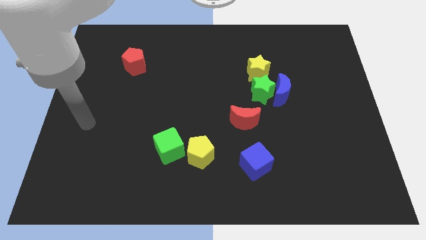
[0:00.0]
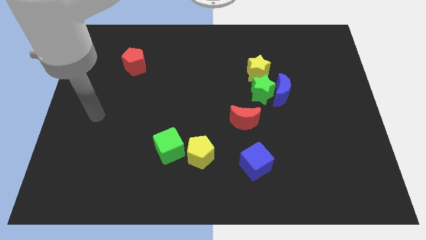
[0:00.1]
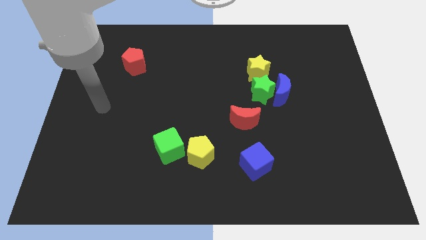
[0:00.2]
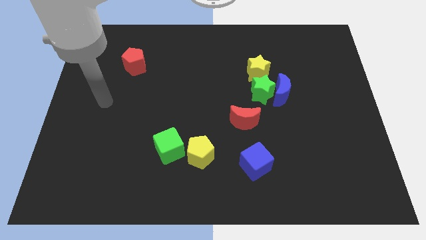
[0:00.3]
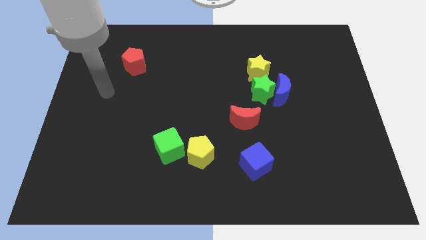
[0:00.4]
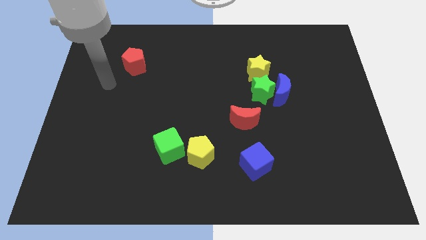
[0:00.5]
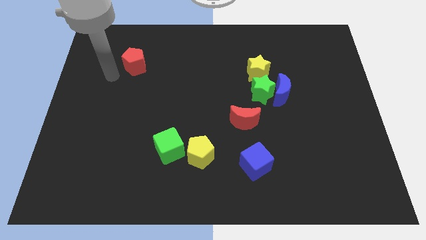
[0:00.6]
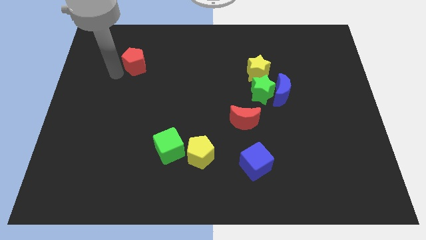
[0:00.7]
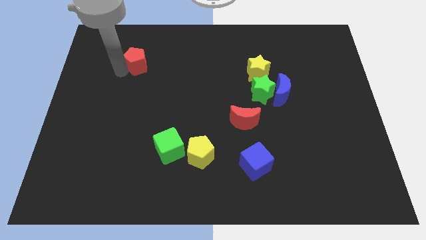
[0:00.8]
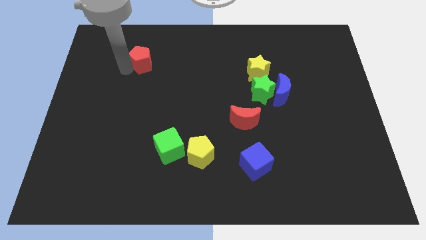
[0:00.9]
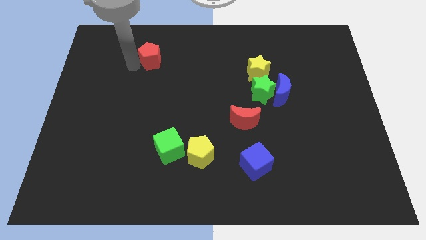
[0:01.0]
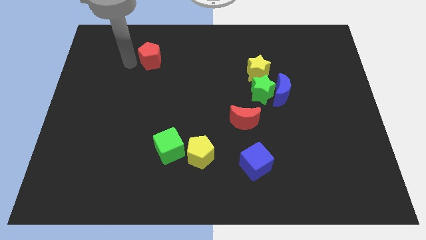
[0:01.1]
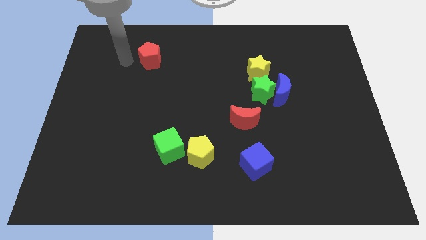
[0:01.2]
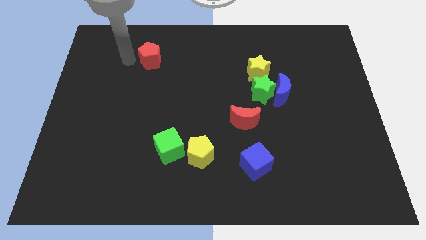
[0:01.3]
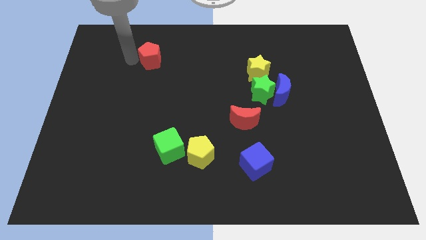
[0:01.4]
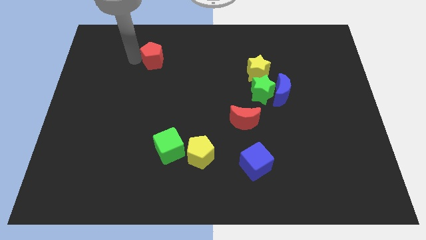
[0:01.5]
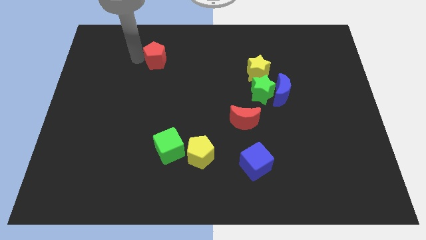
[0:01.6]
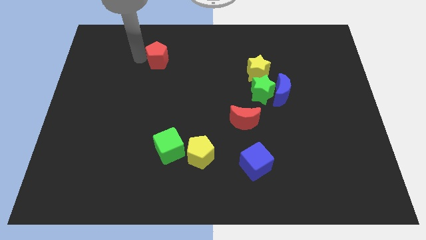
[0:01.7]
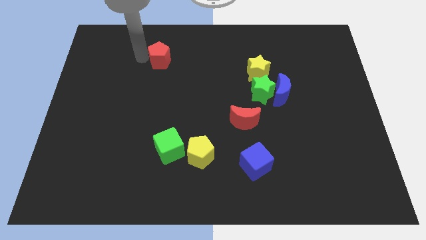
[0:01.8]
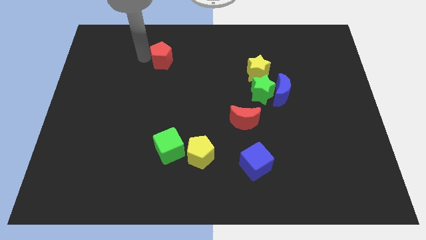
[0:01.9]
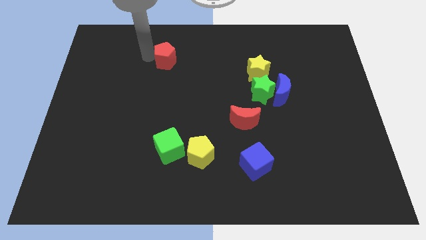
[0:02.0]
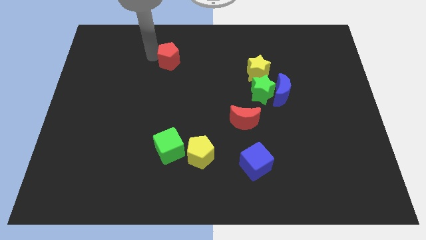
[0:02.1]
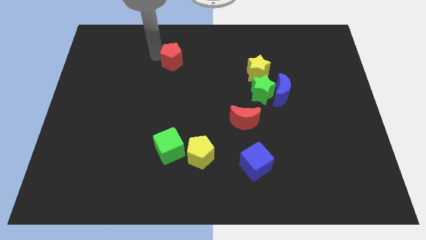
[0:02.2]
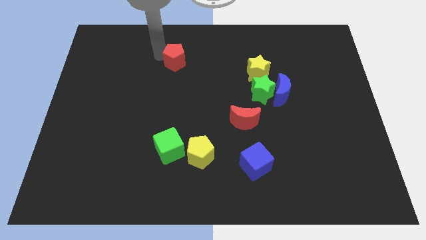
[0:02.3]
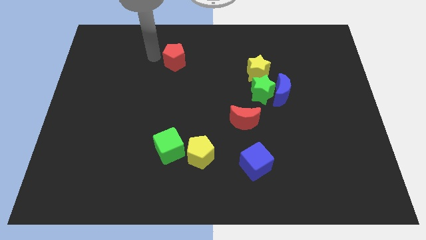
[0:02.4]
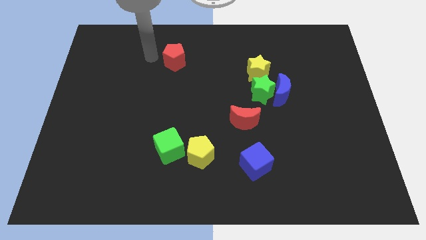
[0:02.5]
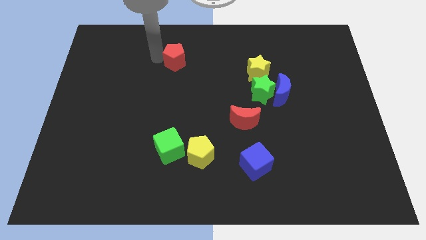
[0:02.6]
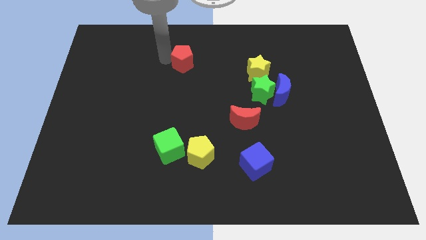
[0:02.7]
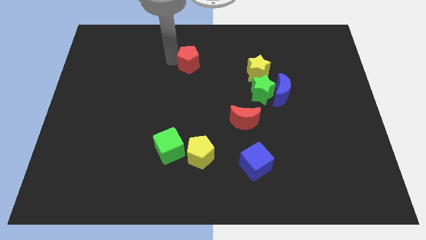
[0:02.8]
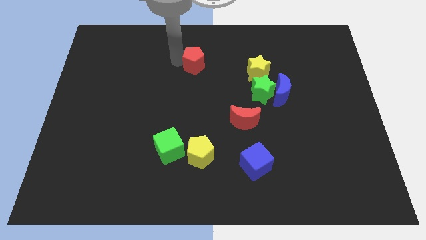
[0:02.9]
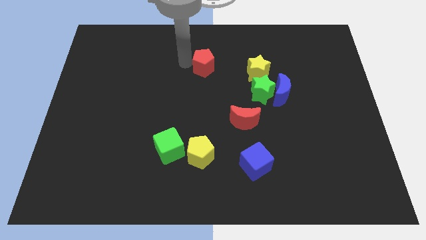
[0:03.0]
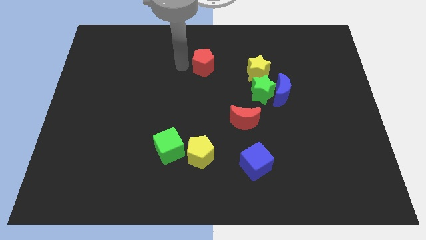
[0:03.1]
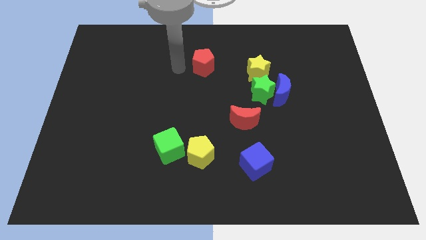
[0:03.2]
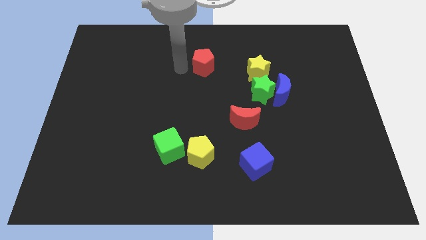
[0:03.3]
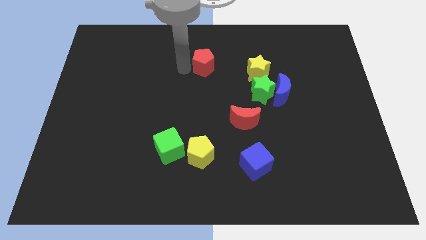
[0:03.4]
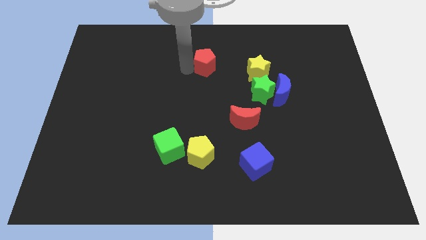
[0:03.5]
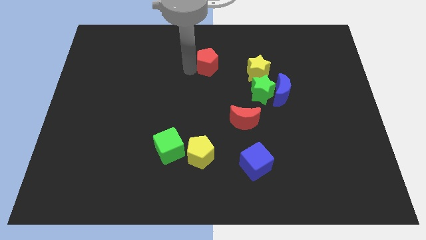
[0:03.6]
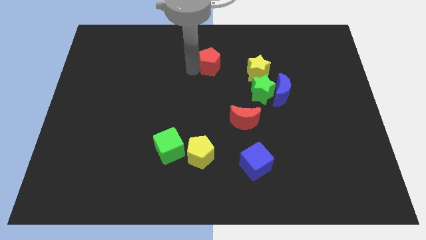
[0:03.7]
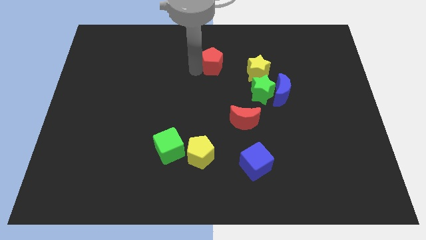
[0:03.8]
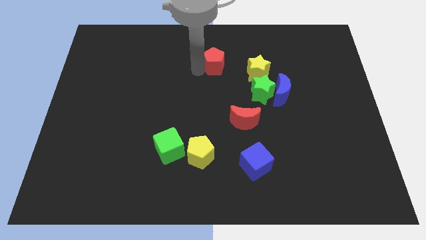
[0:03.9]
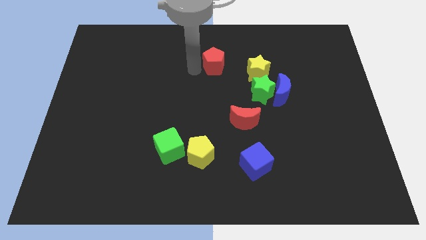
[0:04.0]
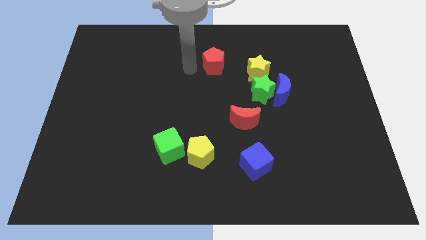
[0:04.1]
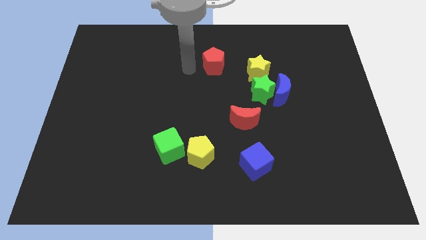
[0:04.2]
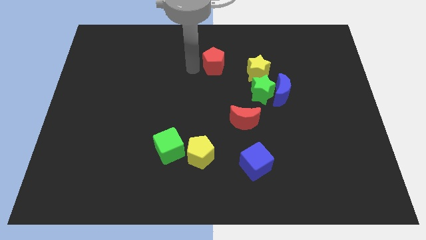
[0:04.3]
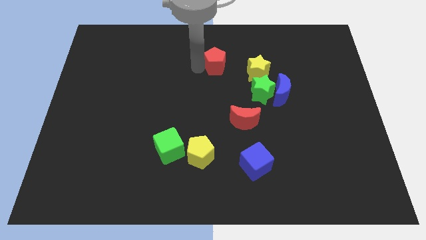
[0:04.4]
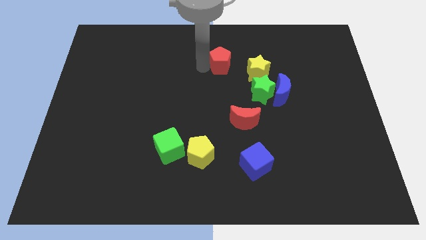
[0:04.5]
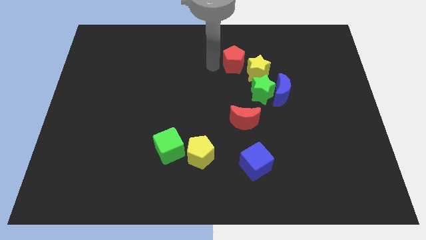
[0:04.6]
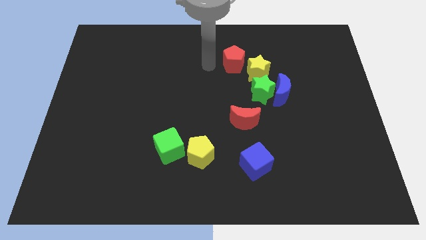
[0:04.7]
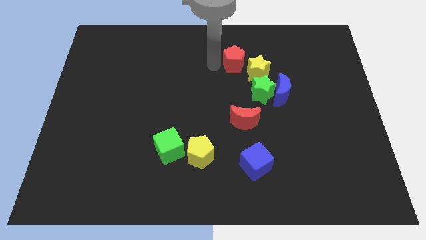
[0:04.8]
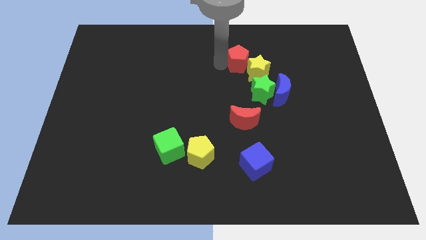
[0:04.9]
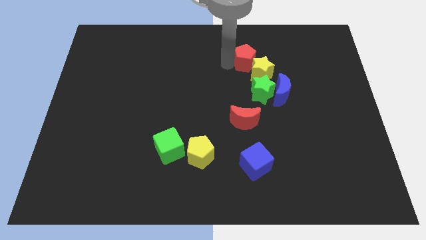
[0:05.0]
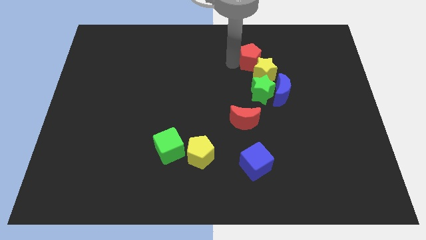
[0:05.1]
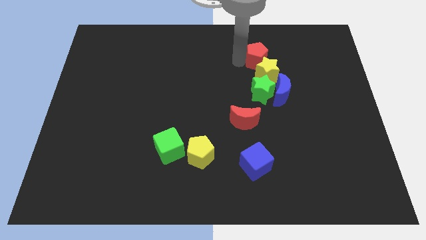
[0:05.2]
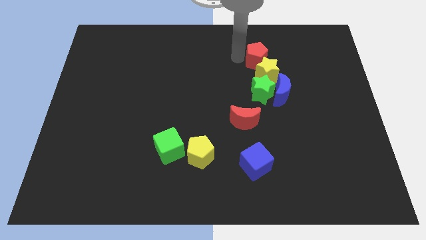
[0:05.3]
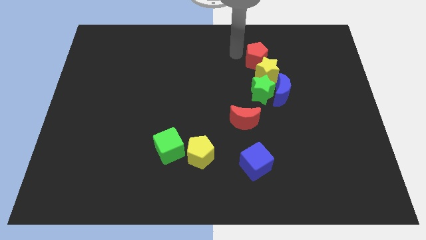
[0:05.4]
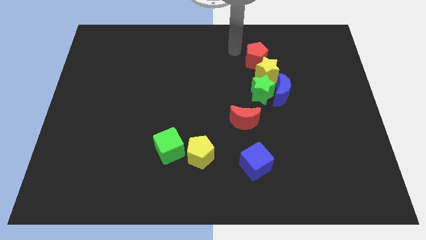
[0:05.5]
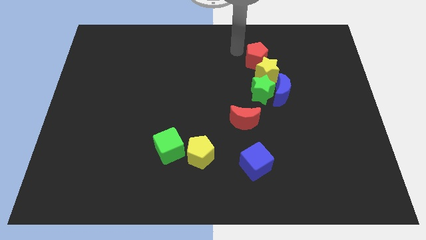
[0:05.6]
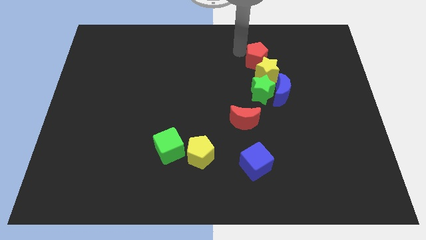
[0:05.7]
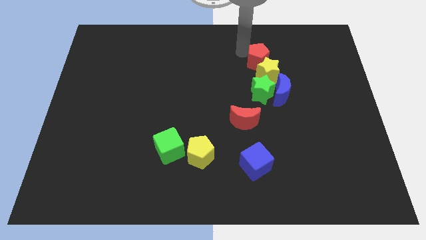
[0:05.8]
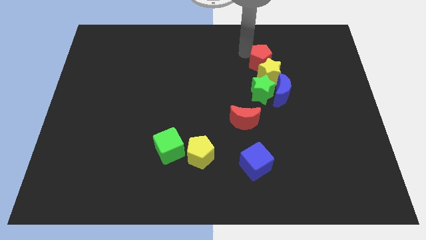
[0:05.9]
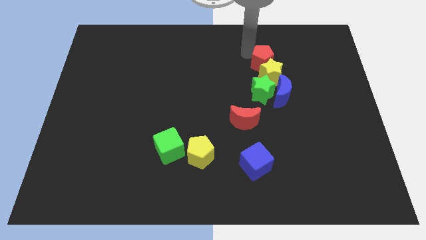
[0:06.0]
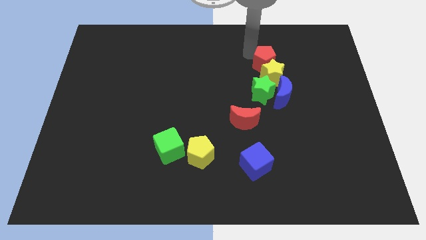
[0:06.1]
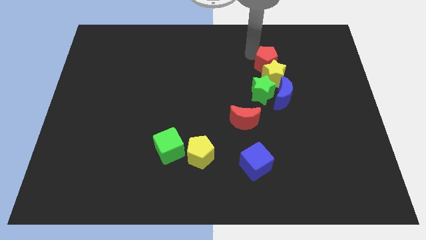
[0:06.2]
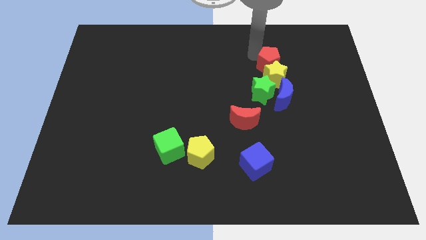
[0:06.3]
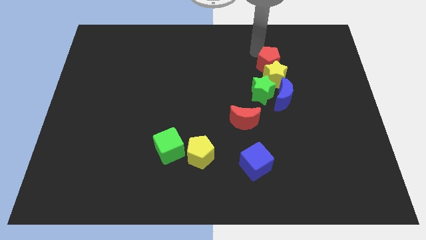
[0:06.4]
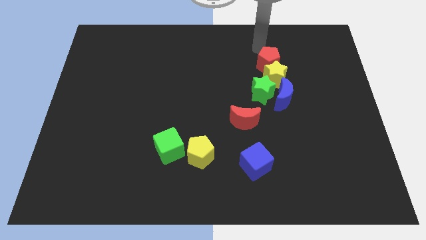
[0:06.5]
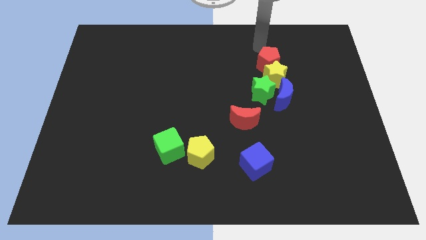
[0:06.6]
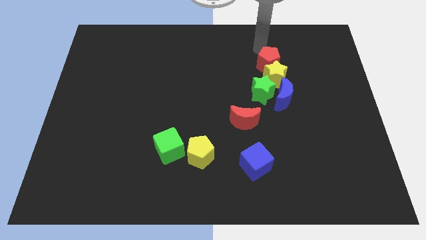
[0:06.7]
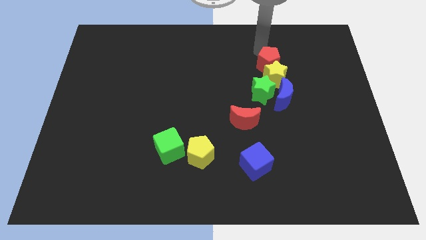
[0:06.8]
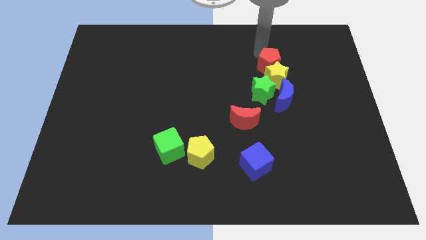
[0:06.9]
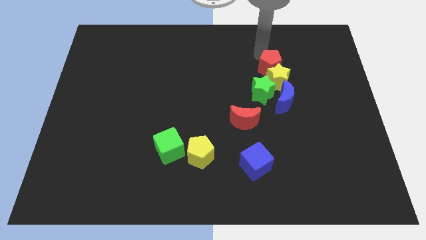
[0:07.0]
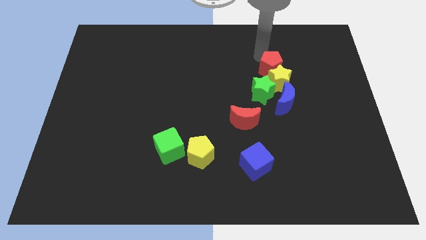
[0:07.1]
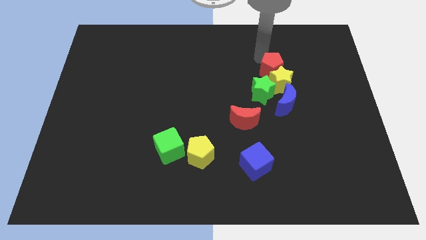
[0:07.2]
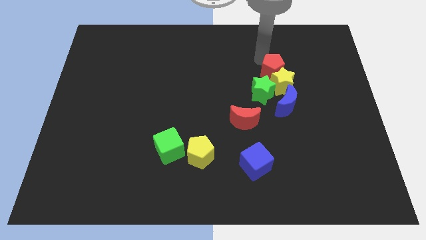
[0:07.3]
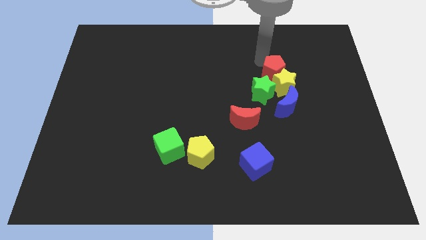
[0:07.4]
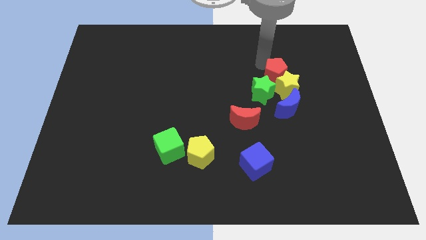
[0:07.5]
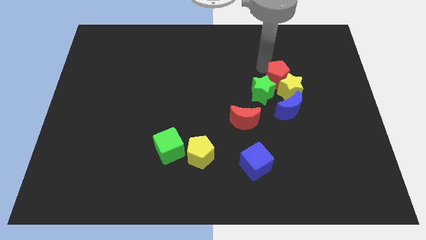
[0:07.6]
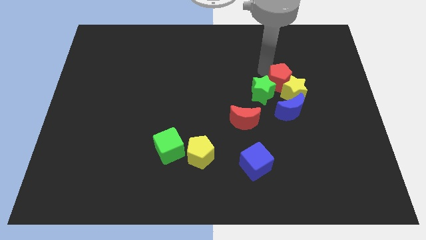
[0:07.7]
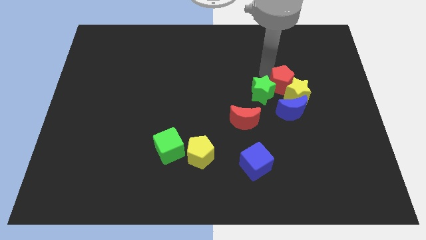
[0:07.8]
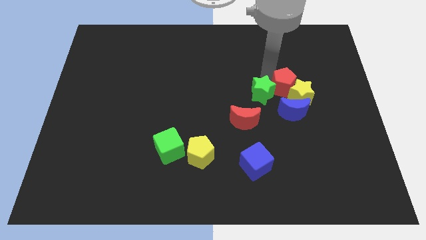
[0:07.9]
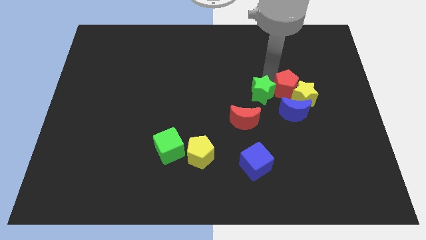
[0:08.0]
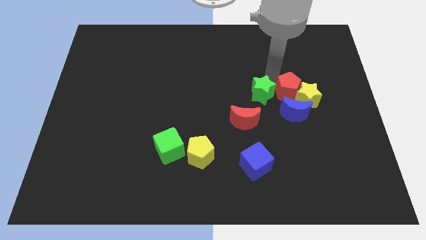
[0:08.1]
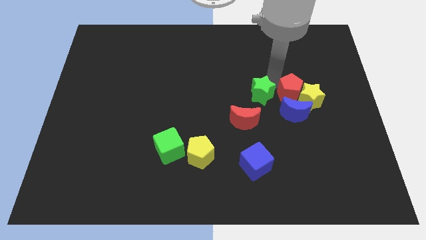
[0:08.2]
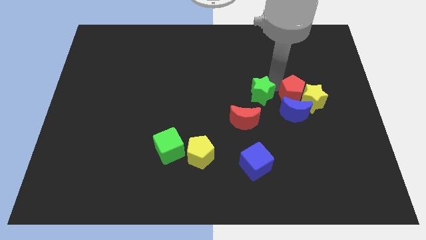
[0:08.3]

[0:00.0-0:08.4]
slide the red pentagon close to the blue moon
